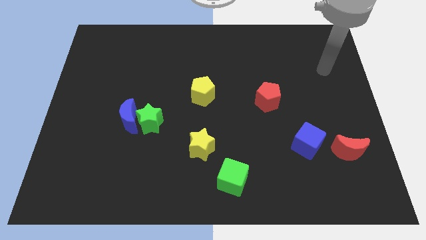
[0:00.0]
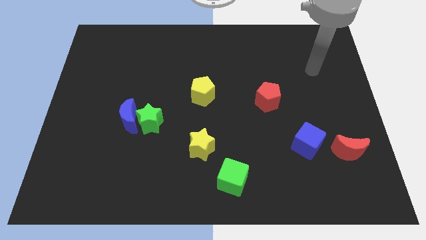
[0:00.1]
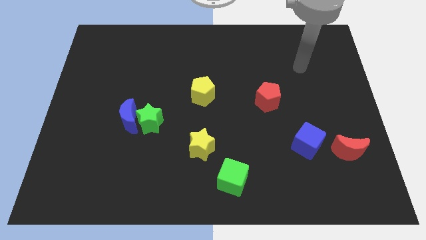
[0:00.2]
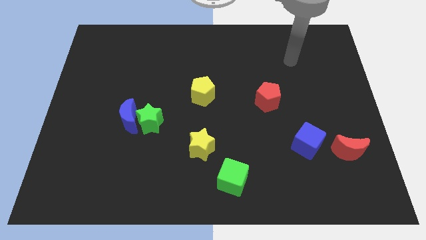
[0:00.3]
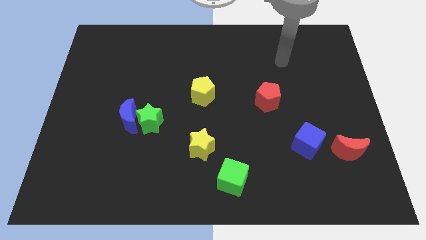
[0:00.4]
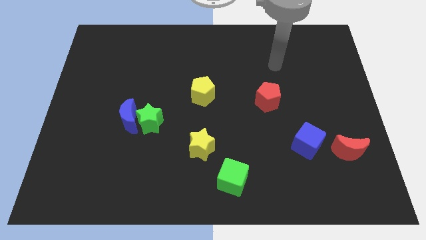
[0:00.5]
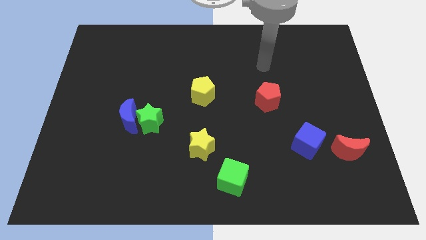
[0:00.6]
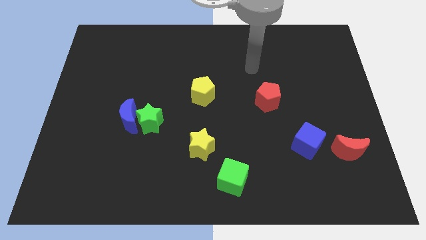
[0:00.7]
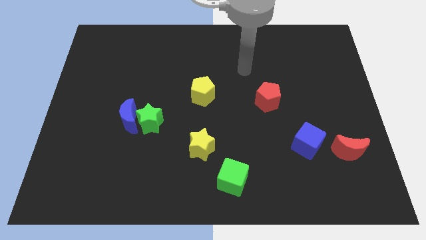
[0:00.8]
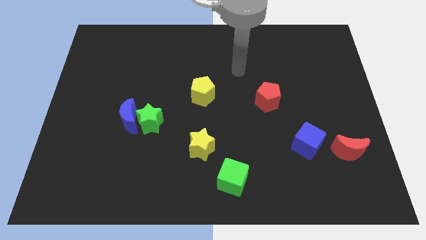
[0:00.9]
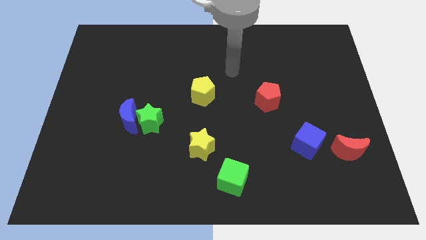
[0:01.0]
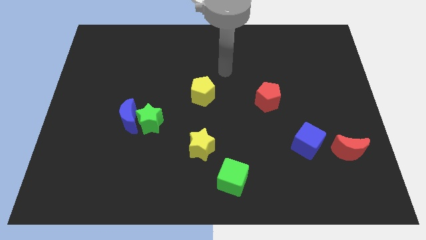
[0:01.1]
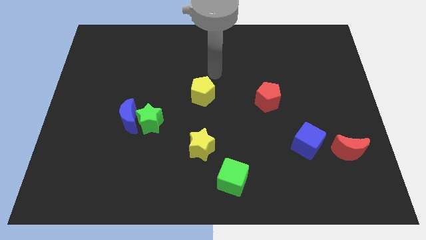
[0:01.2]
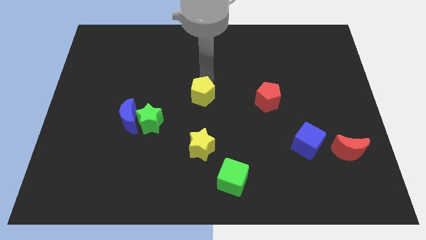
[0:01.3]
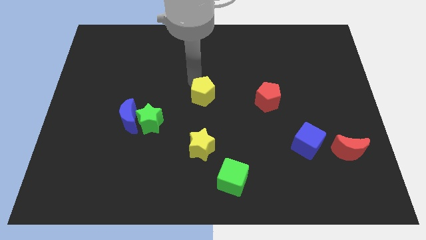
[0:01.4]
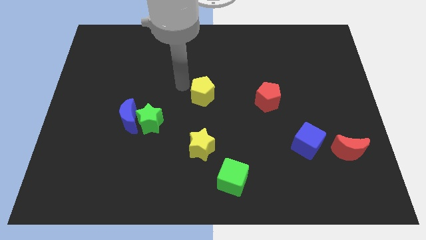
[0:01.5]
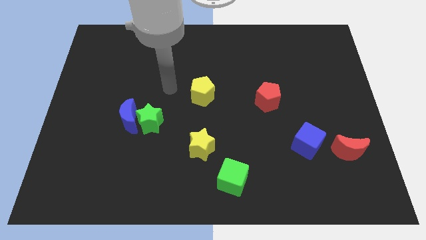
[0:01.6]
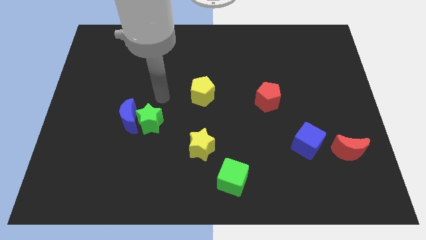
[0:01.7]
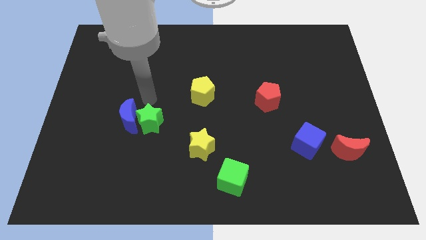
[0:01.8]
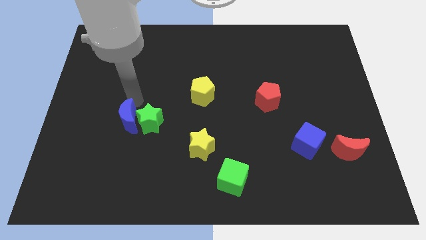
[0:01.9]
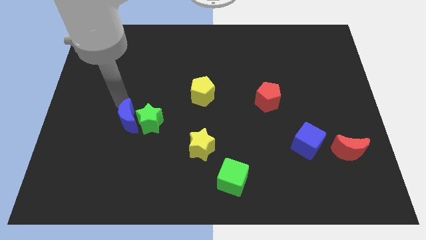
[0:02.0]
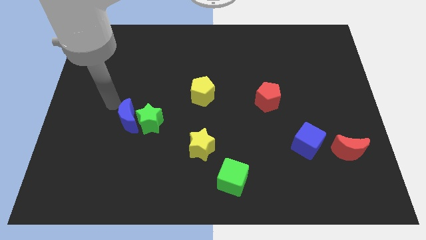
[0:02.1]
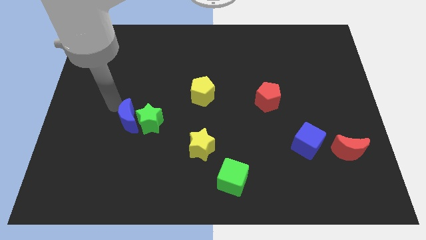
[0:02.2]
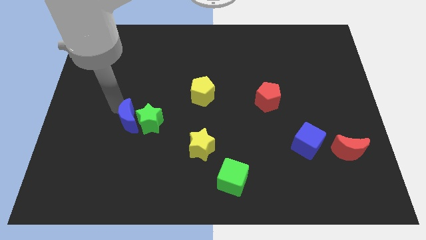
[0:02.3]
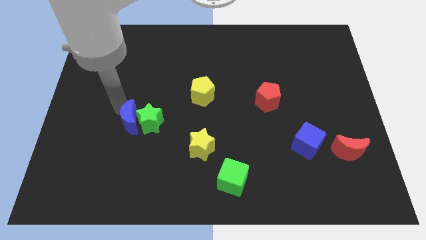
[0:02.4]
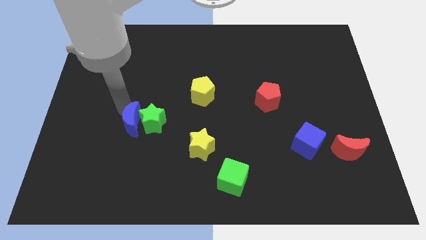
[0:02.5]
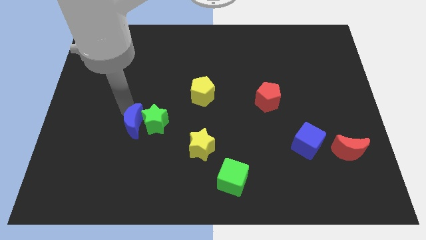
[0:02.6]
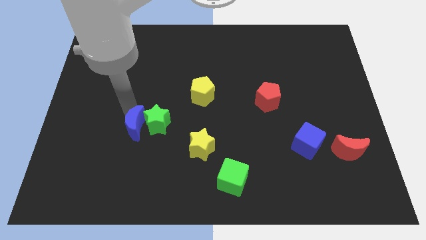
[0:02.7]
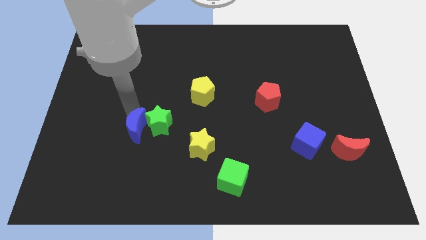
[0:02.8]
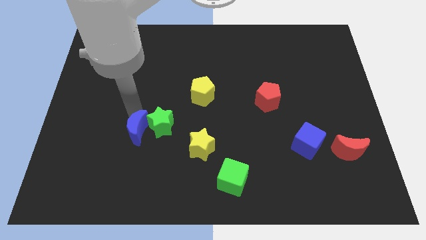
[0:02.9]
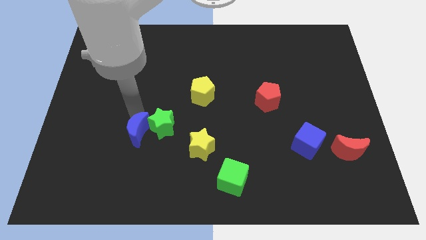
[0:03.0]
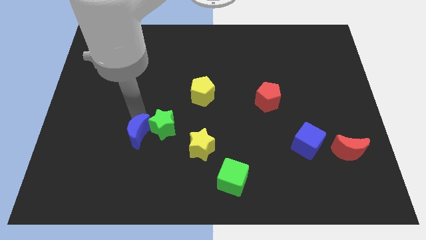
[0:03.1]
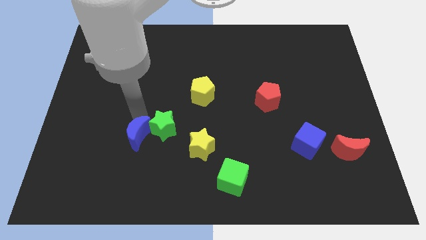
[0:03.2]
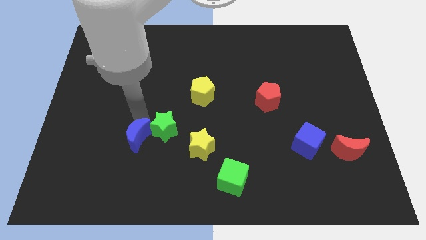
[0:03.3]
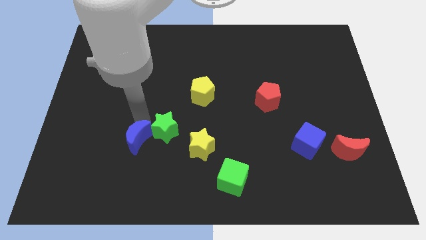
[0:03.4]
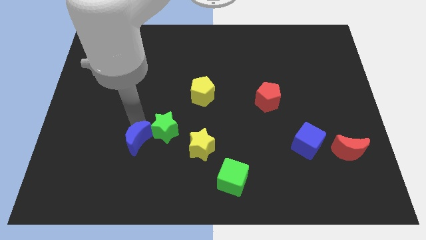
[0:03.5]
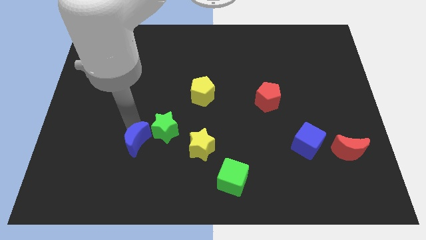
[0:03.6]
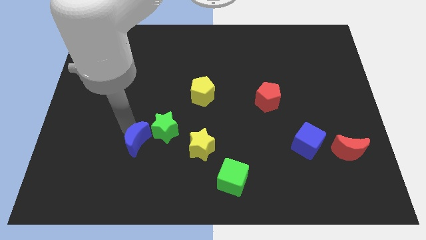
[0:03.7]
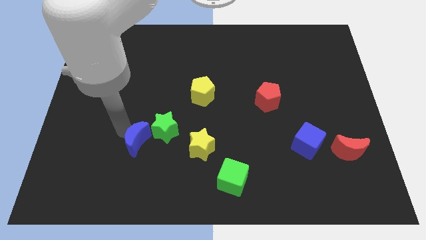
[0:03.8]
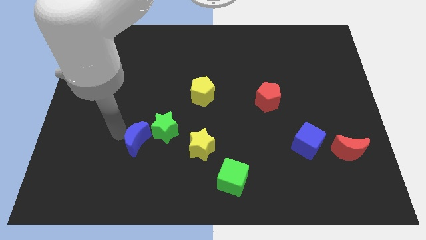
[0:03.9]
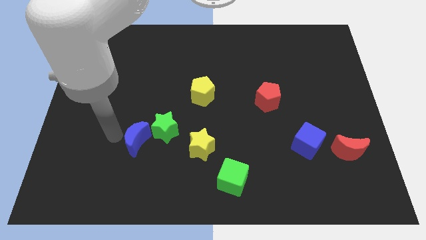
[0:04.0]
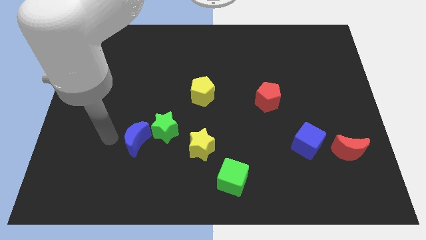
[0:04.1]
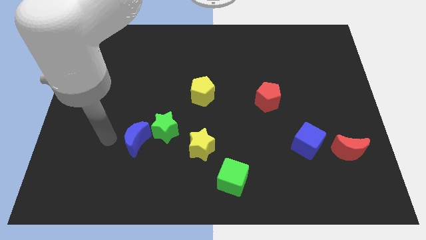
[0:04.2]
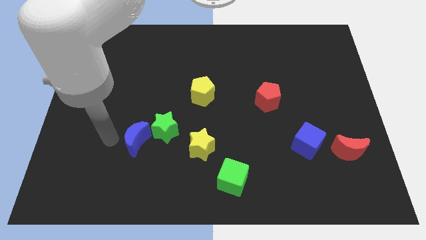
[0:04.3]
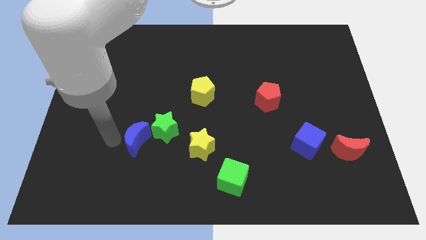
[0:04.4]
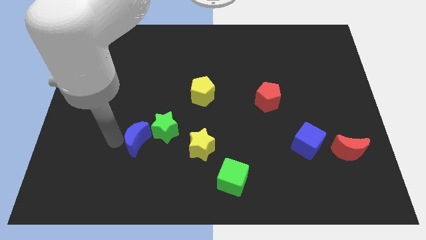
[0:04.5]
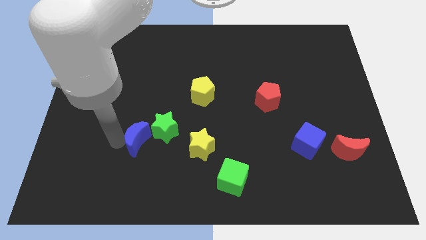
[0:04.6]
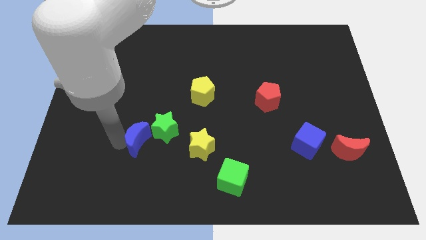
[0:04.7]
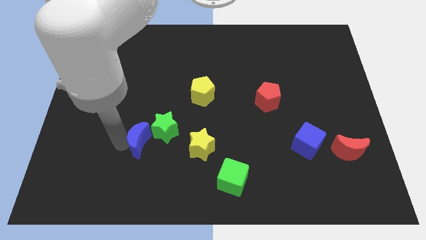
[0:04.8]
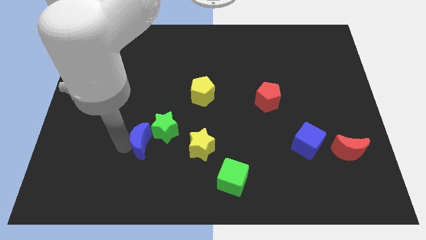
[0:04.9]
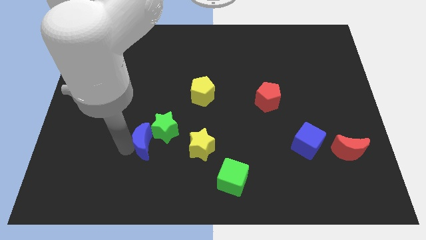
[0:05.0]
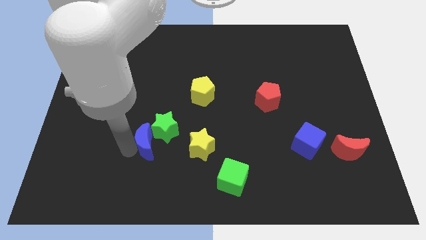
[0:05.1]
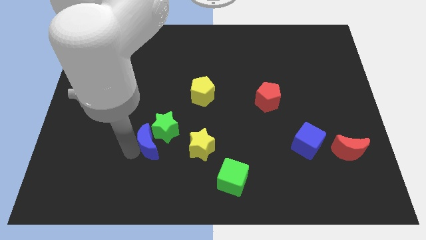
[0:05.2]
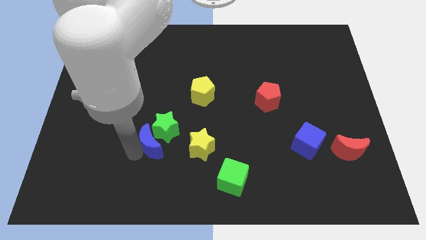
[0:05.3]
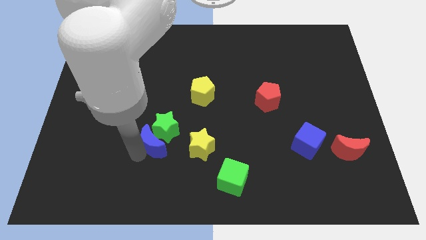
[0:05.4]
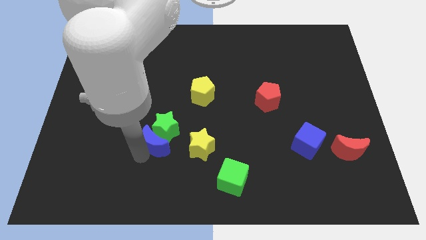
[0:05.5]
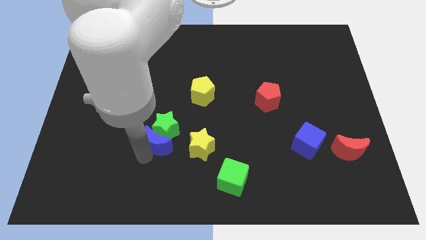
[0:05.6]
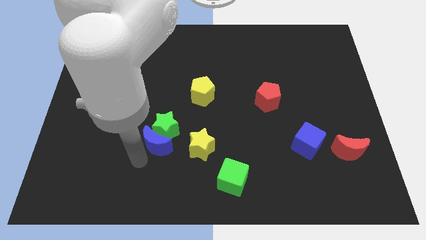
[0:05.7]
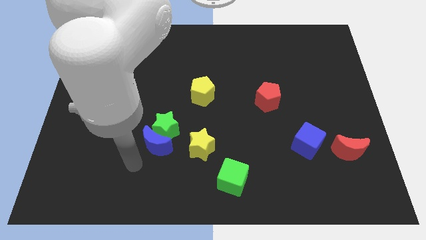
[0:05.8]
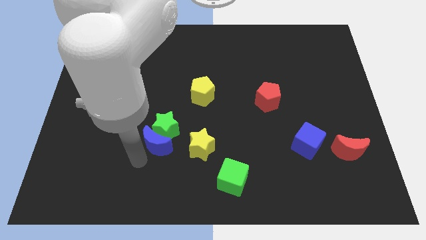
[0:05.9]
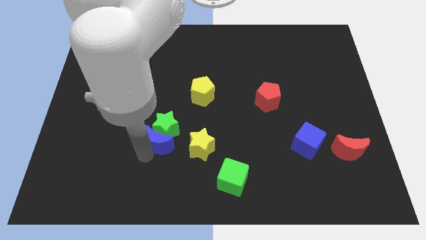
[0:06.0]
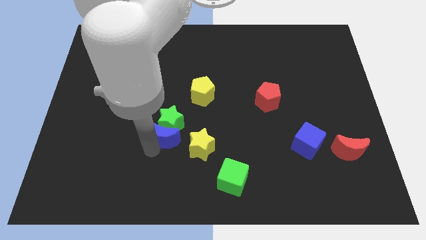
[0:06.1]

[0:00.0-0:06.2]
move the blue moon diagonally up and to the left of the yellow star
